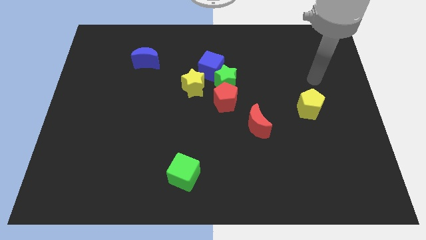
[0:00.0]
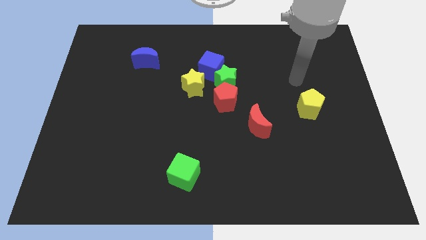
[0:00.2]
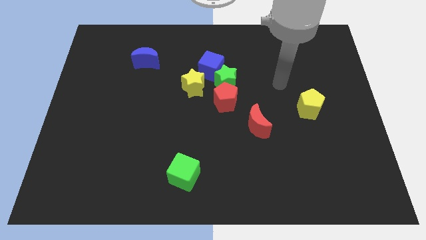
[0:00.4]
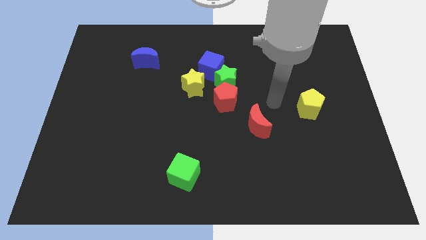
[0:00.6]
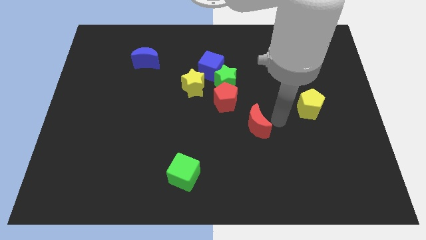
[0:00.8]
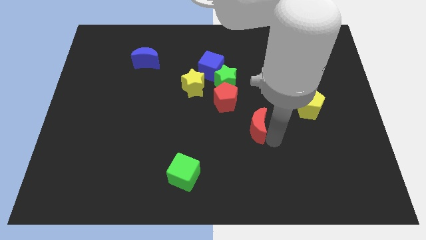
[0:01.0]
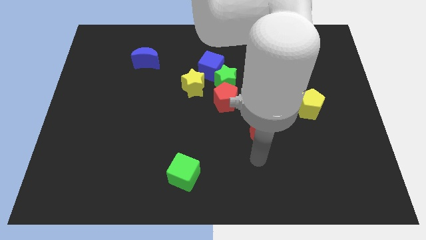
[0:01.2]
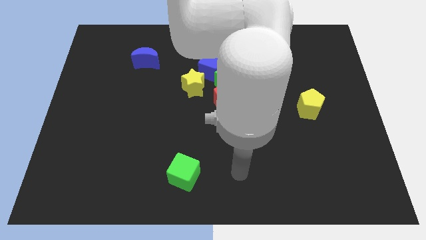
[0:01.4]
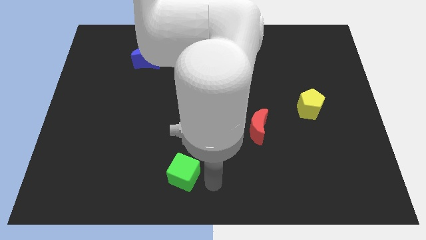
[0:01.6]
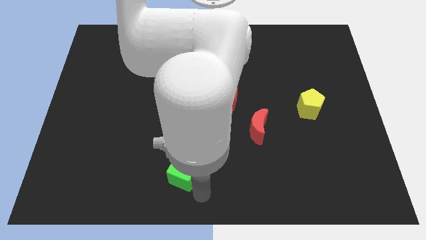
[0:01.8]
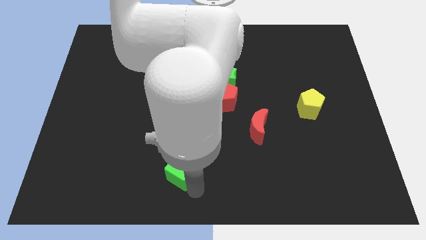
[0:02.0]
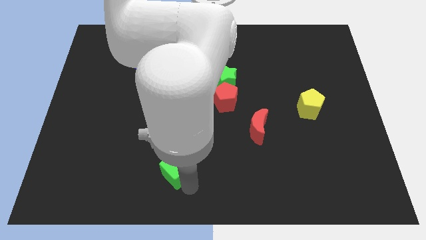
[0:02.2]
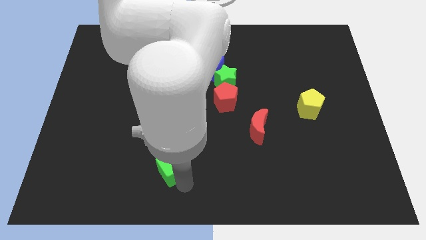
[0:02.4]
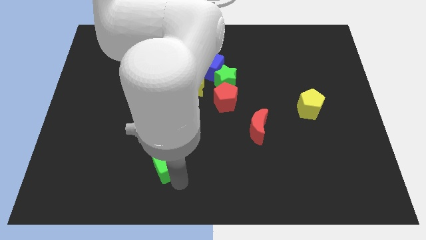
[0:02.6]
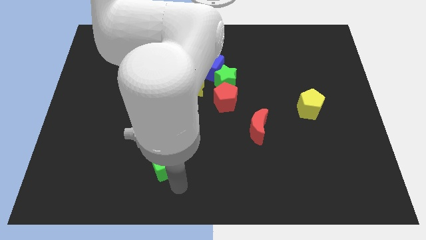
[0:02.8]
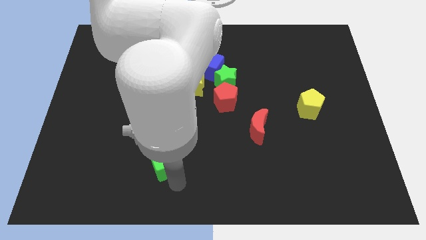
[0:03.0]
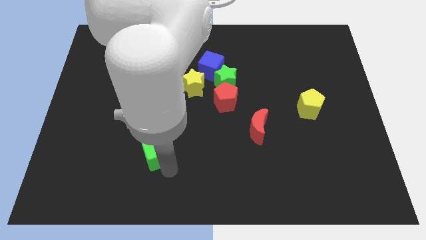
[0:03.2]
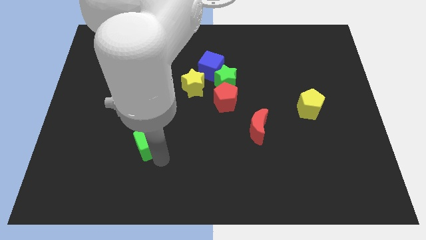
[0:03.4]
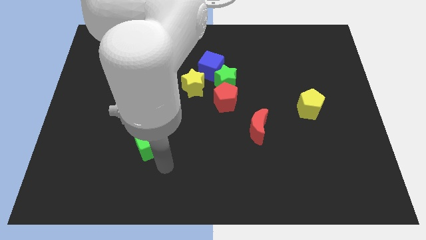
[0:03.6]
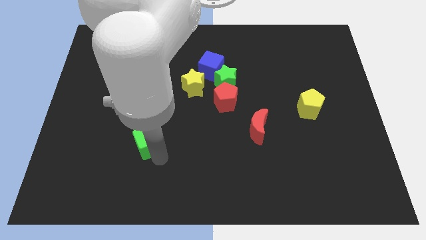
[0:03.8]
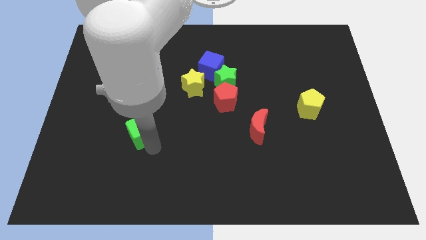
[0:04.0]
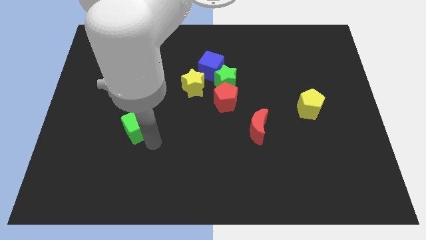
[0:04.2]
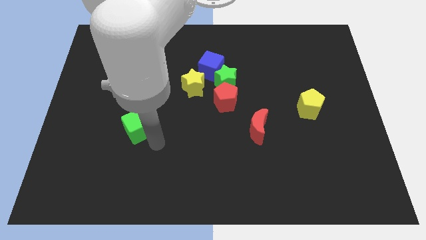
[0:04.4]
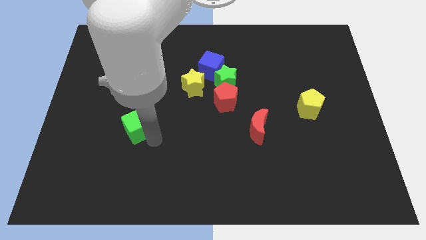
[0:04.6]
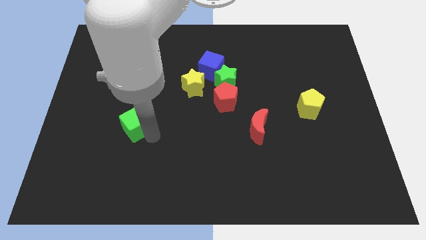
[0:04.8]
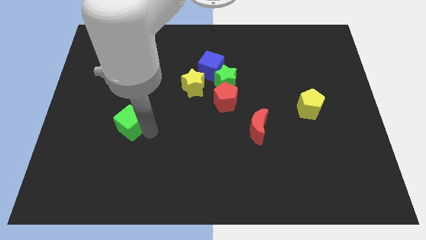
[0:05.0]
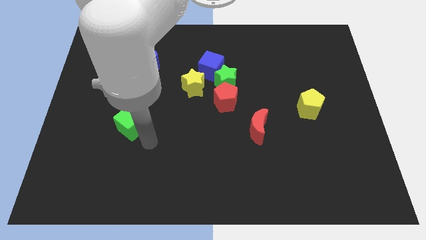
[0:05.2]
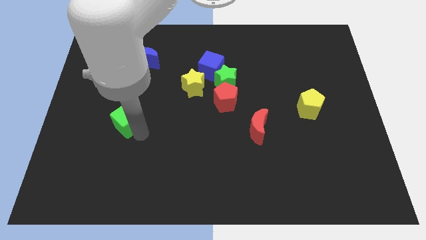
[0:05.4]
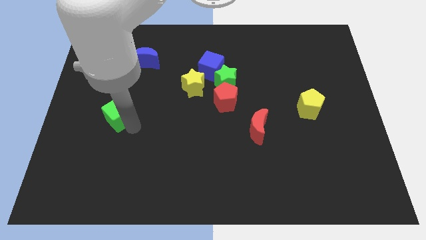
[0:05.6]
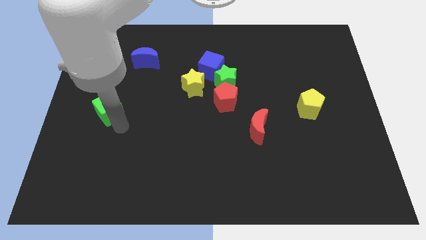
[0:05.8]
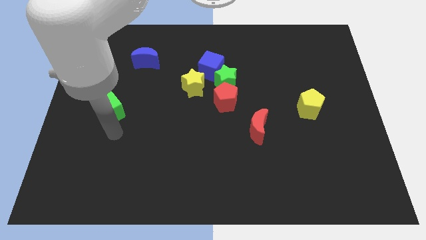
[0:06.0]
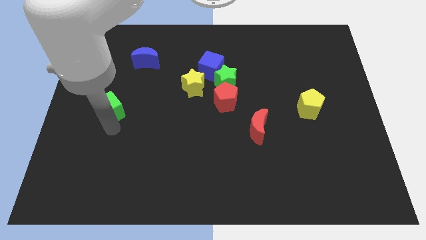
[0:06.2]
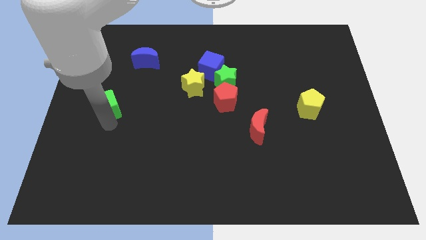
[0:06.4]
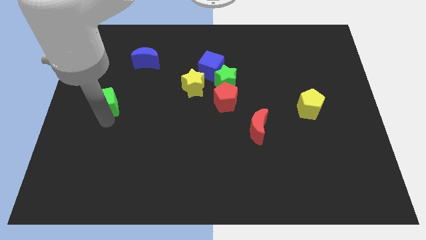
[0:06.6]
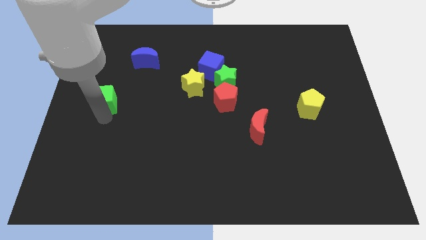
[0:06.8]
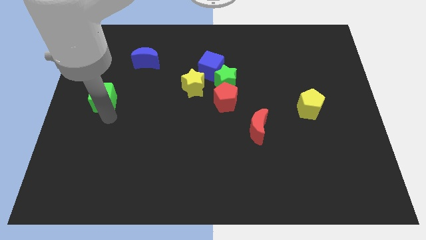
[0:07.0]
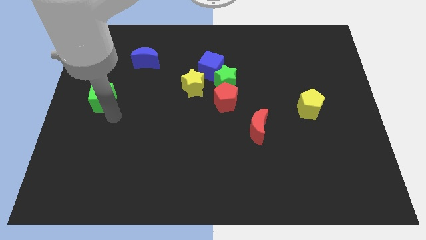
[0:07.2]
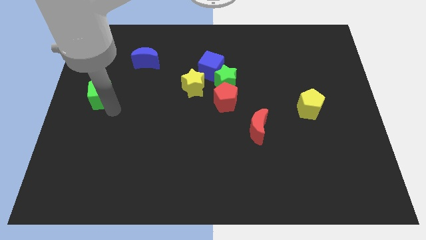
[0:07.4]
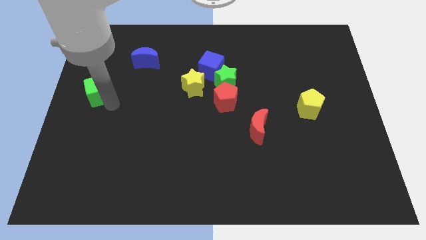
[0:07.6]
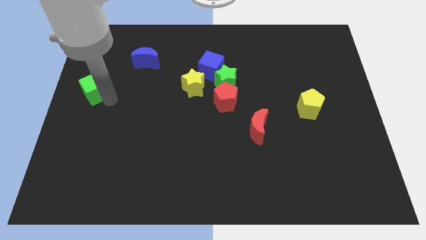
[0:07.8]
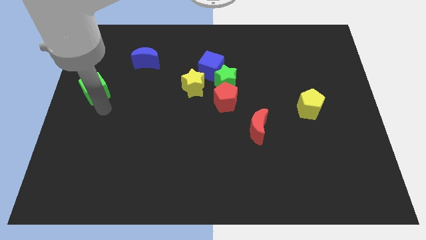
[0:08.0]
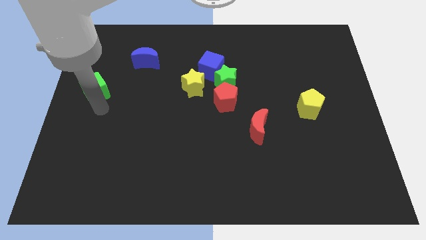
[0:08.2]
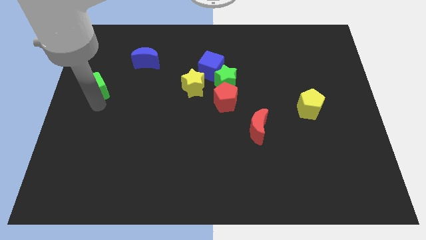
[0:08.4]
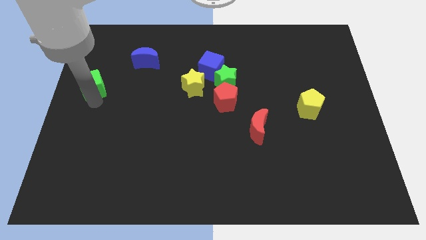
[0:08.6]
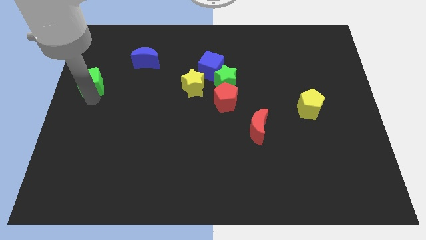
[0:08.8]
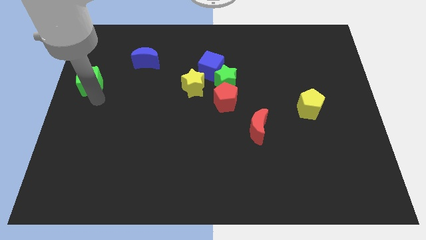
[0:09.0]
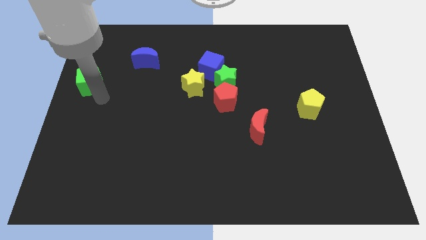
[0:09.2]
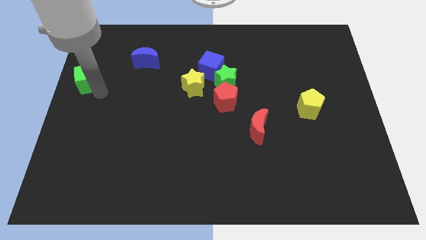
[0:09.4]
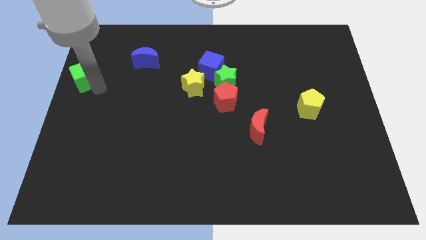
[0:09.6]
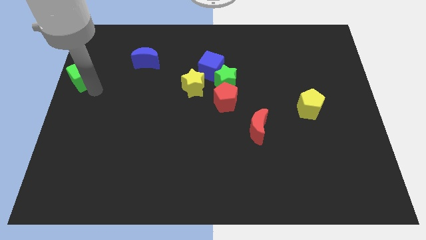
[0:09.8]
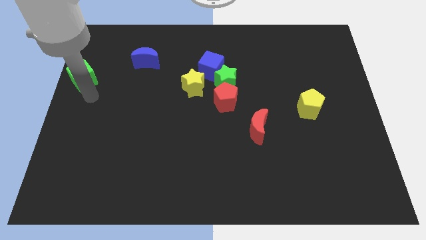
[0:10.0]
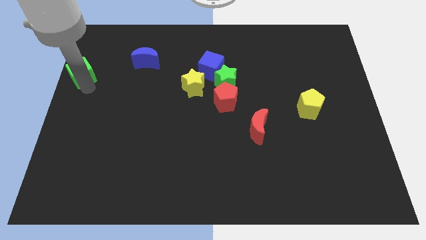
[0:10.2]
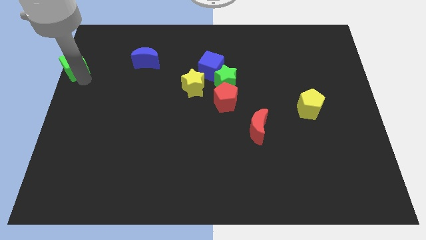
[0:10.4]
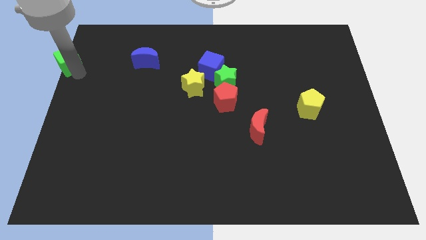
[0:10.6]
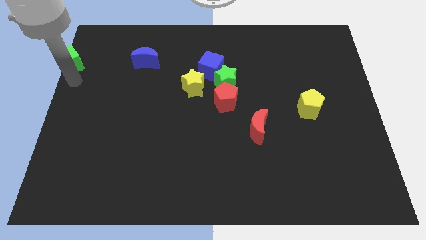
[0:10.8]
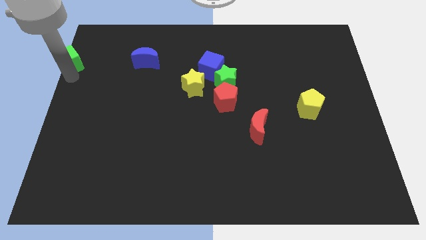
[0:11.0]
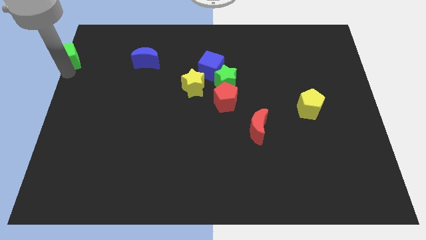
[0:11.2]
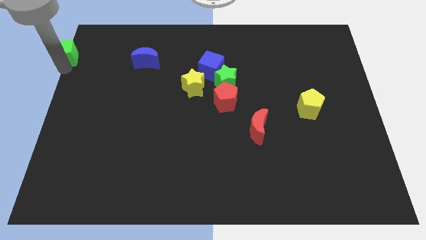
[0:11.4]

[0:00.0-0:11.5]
put the green cube to the top left

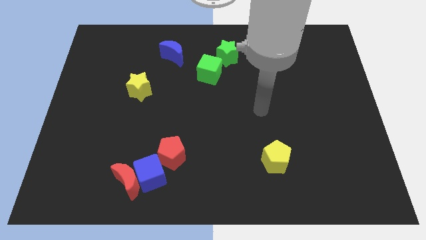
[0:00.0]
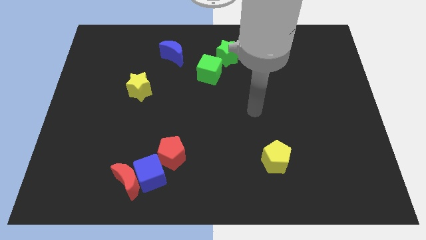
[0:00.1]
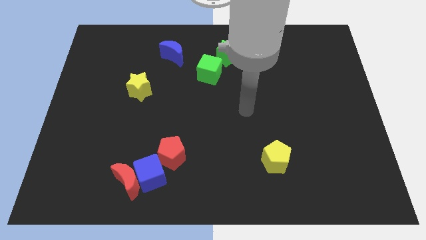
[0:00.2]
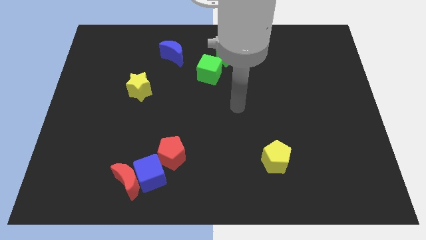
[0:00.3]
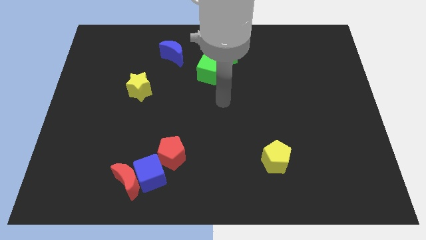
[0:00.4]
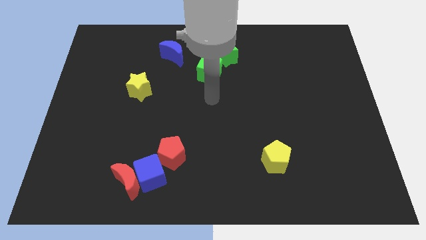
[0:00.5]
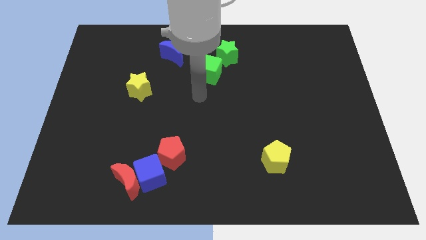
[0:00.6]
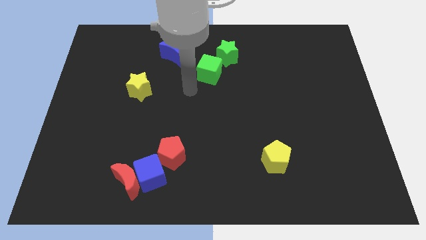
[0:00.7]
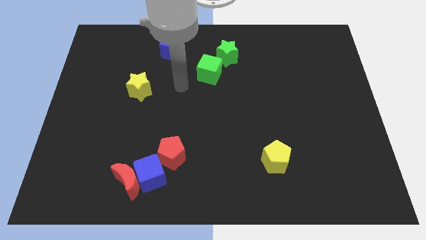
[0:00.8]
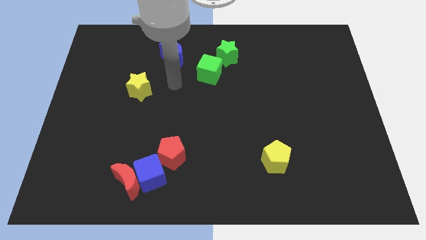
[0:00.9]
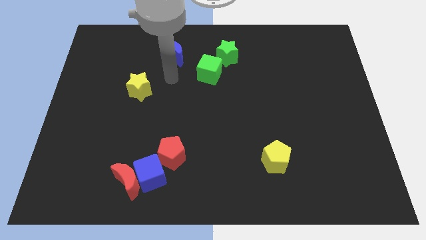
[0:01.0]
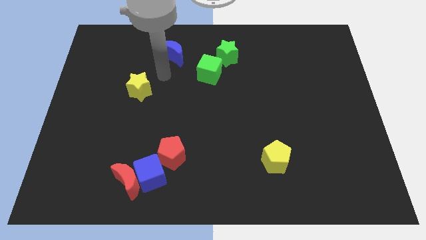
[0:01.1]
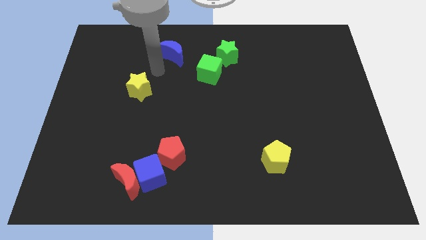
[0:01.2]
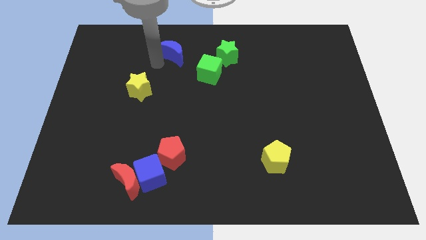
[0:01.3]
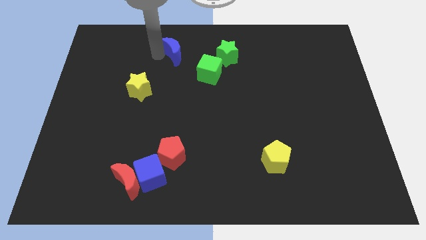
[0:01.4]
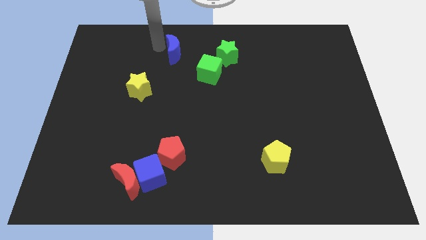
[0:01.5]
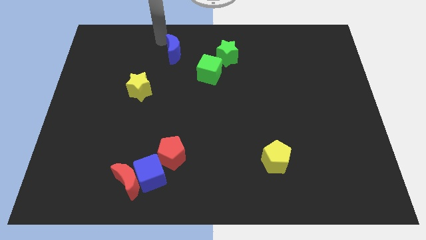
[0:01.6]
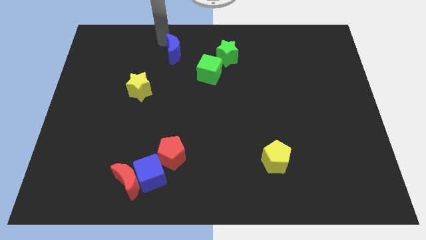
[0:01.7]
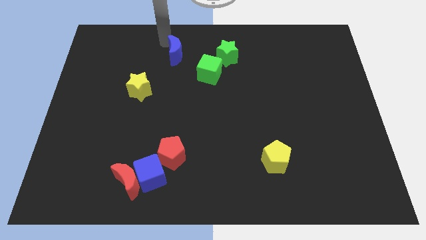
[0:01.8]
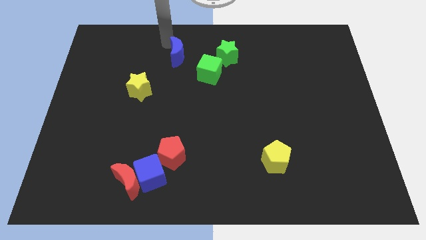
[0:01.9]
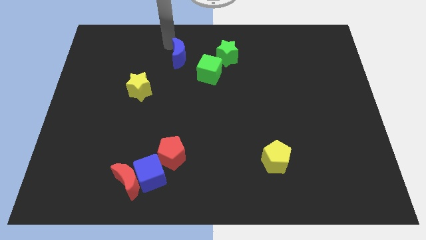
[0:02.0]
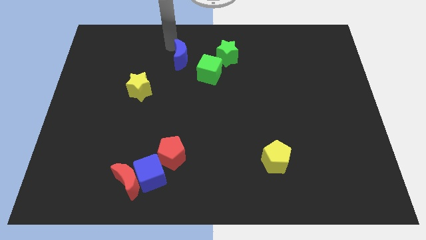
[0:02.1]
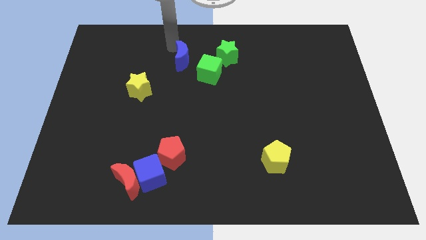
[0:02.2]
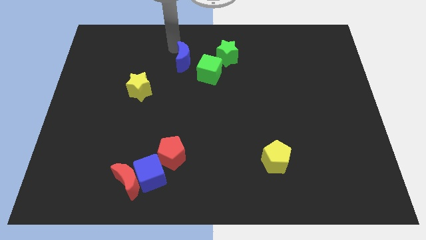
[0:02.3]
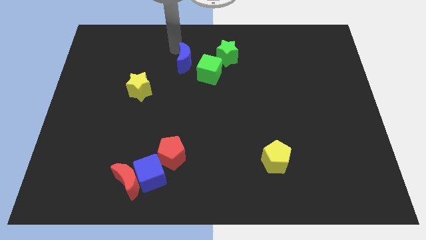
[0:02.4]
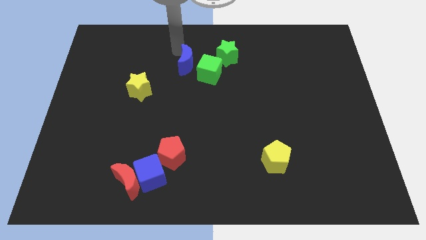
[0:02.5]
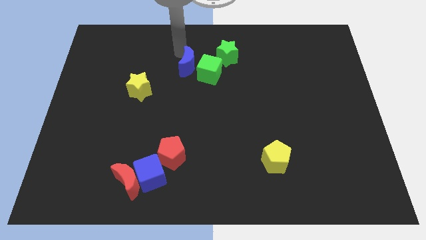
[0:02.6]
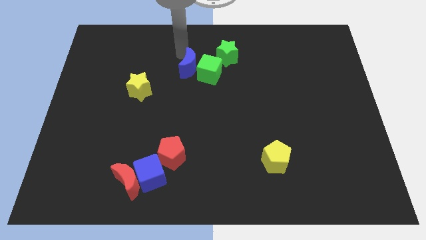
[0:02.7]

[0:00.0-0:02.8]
push the blue moon to the center of the board
